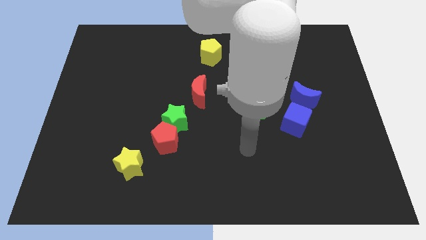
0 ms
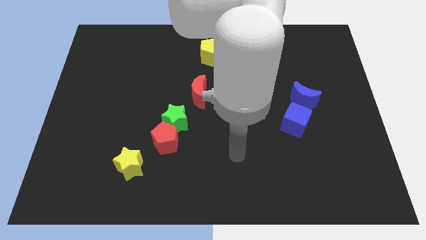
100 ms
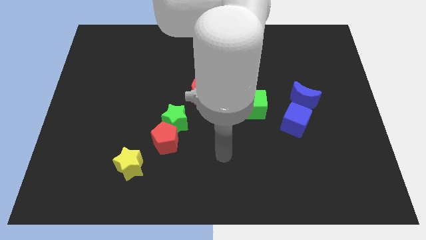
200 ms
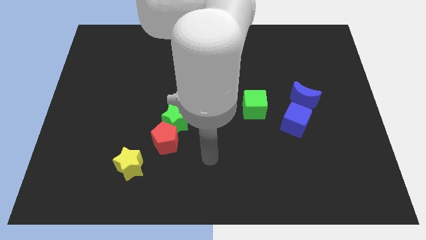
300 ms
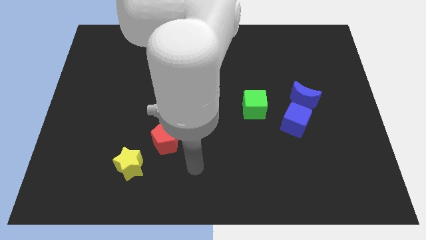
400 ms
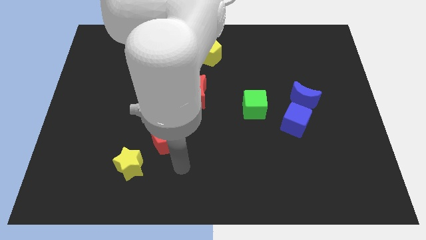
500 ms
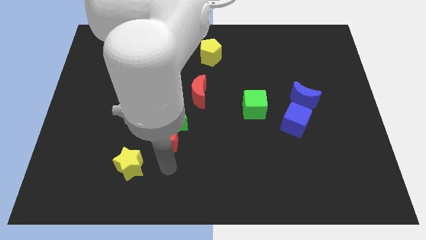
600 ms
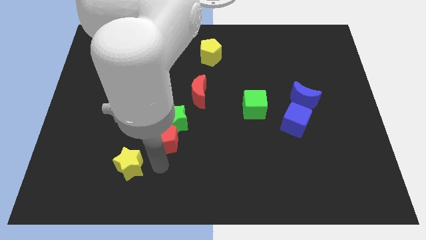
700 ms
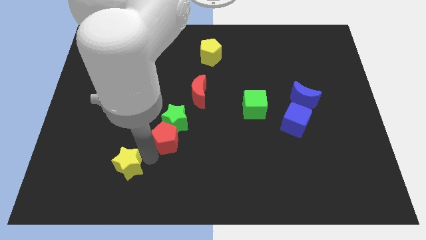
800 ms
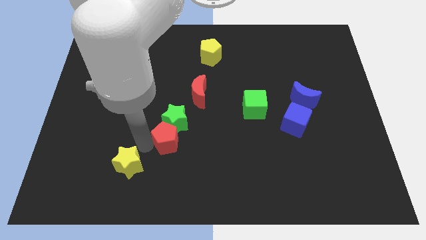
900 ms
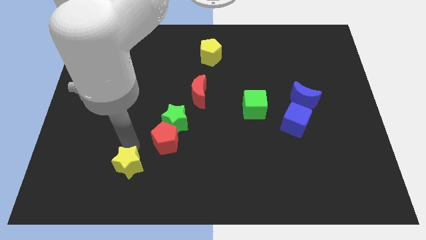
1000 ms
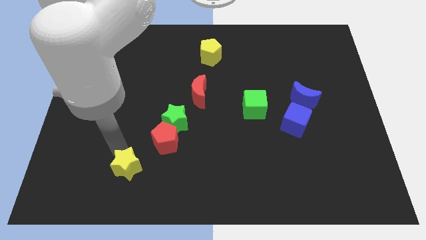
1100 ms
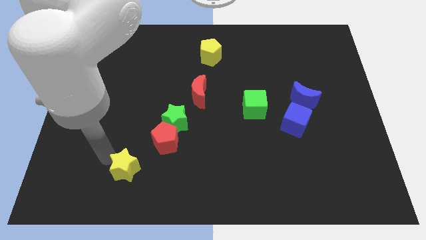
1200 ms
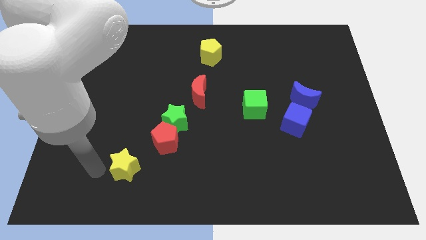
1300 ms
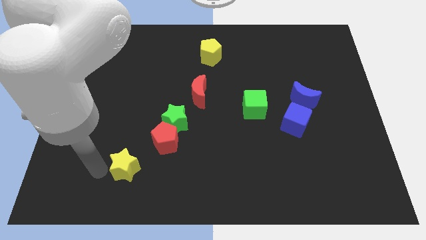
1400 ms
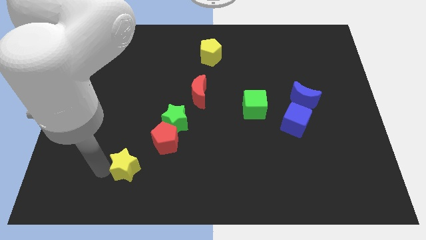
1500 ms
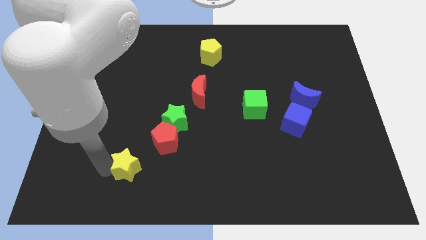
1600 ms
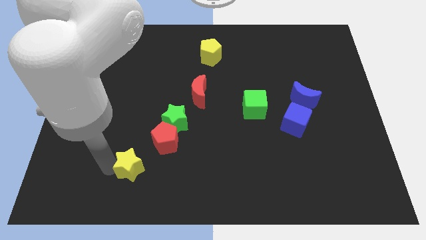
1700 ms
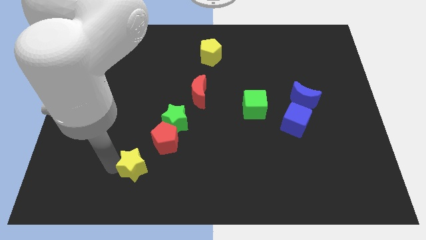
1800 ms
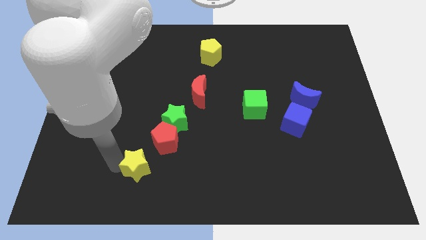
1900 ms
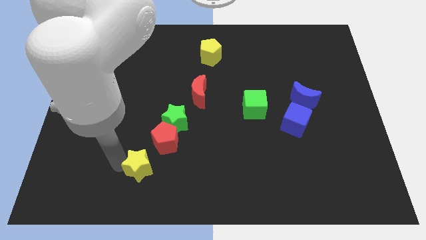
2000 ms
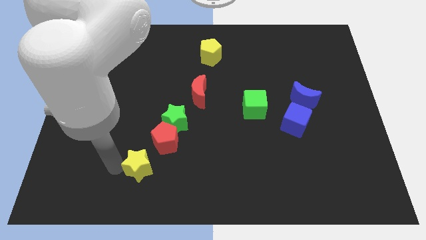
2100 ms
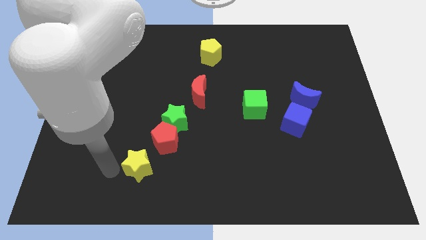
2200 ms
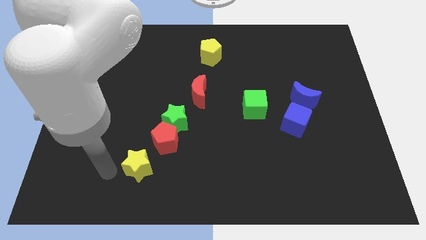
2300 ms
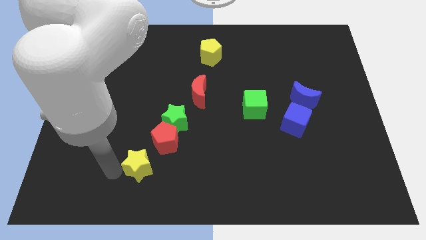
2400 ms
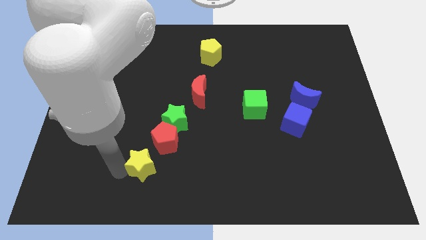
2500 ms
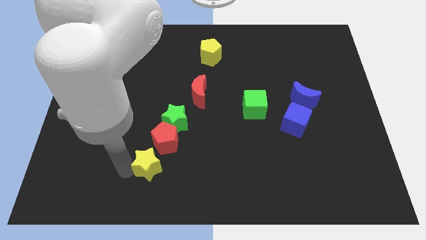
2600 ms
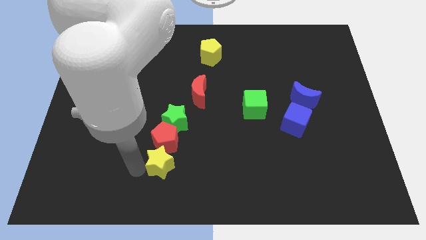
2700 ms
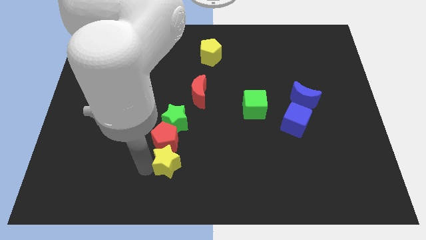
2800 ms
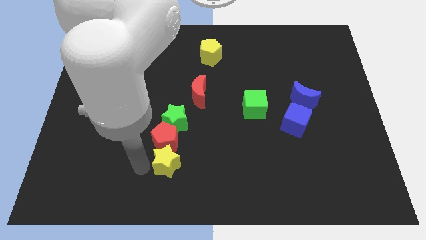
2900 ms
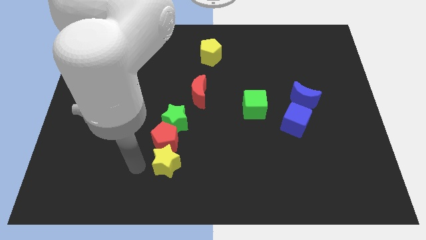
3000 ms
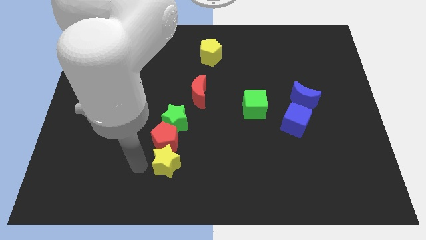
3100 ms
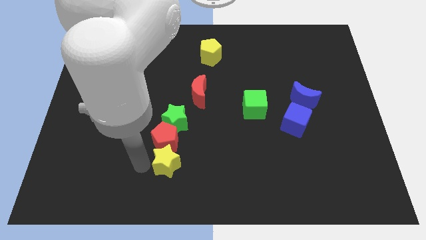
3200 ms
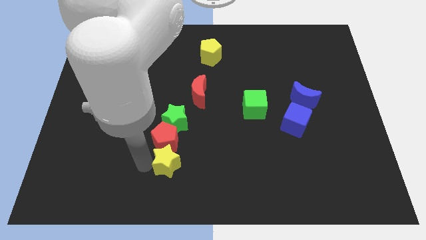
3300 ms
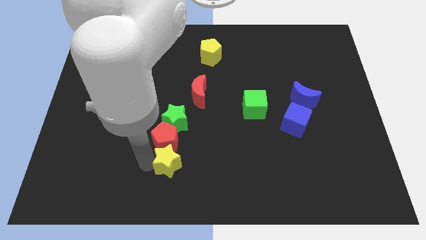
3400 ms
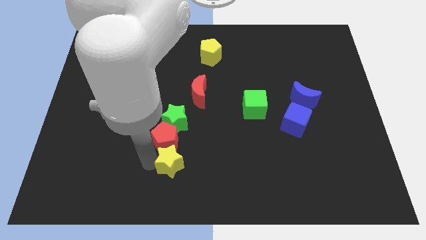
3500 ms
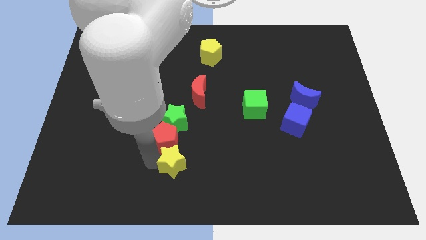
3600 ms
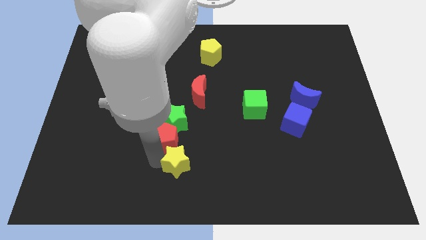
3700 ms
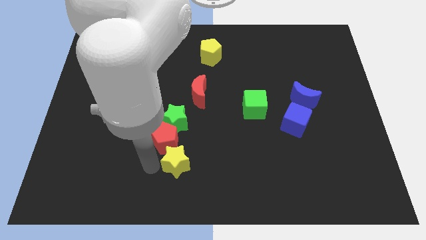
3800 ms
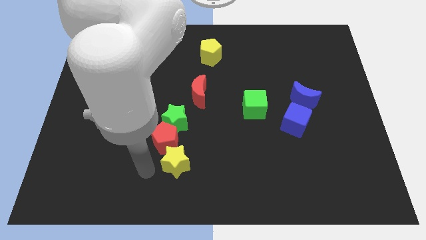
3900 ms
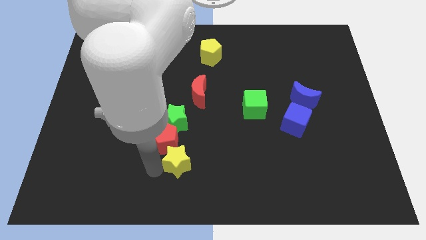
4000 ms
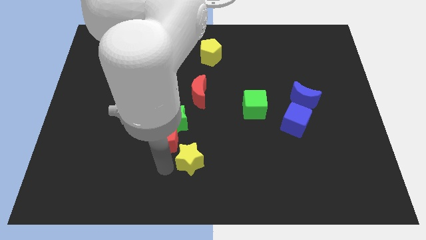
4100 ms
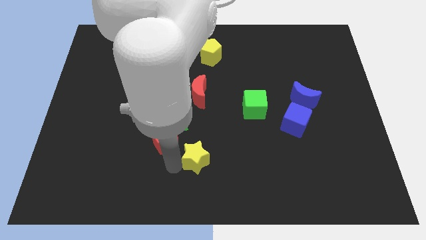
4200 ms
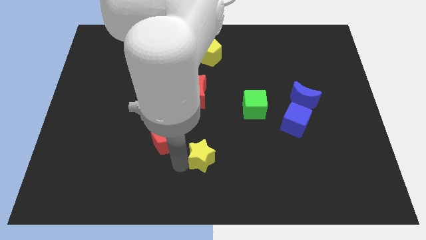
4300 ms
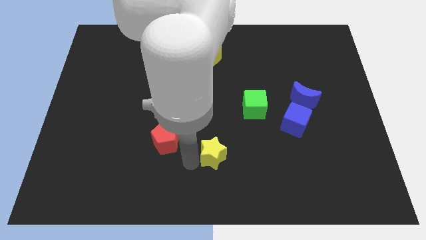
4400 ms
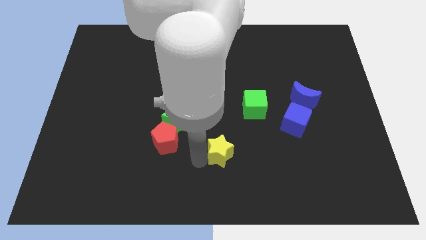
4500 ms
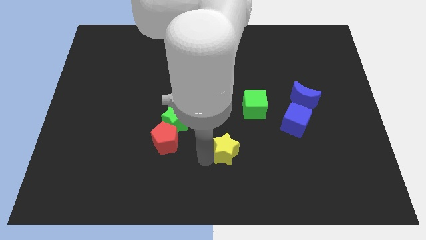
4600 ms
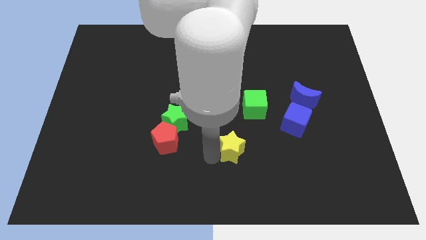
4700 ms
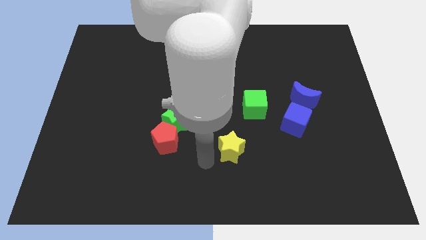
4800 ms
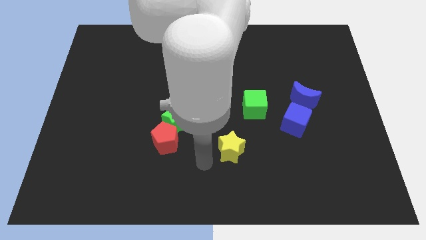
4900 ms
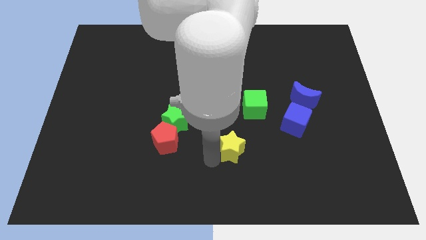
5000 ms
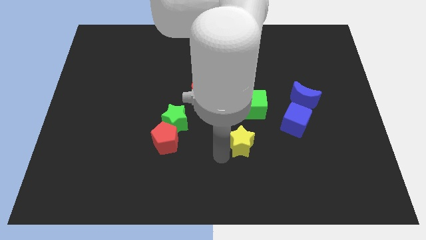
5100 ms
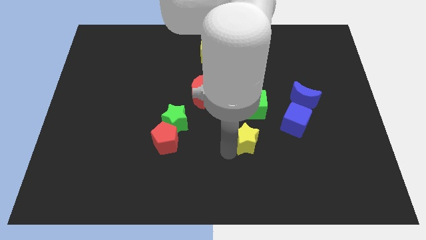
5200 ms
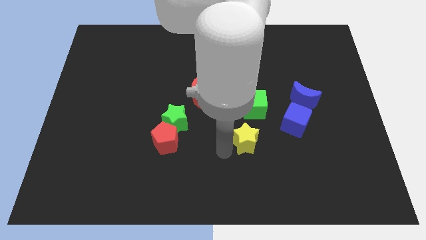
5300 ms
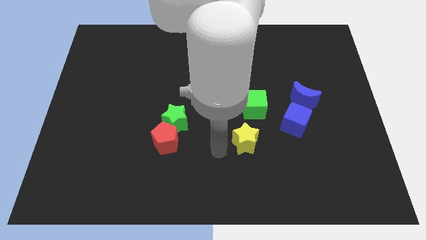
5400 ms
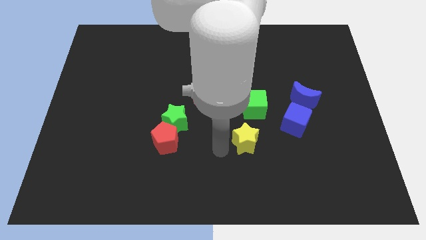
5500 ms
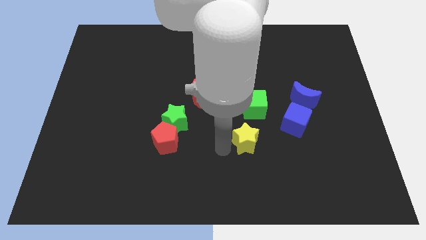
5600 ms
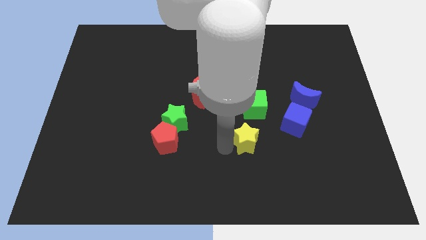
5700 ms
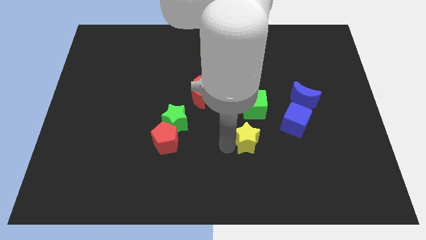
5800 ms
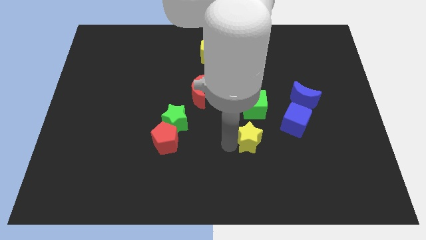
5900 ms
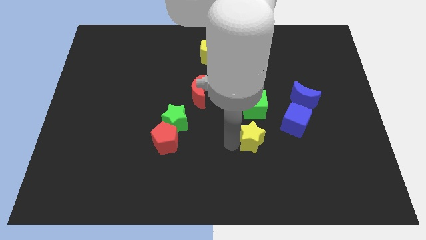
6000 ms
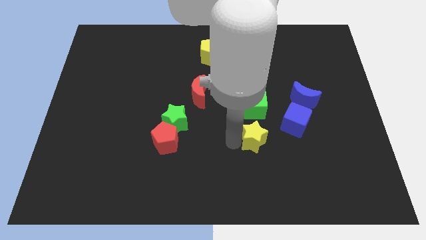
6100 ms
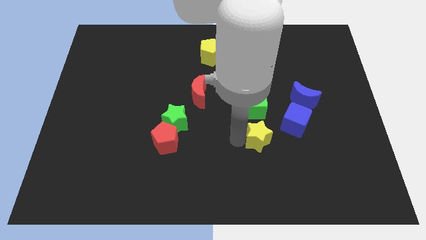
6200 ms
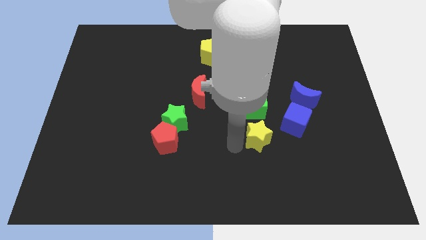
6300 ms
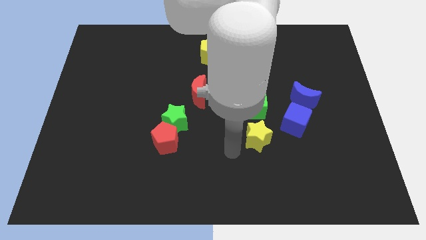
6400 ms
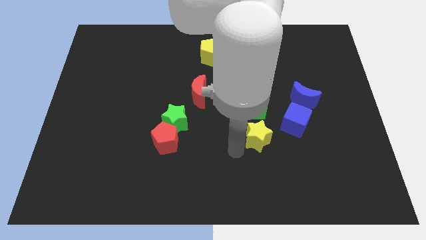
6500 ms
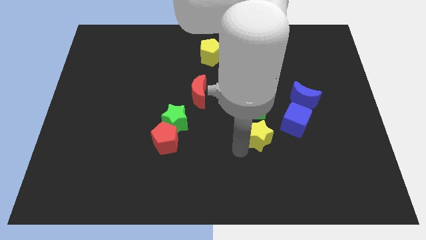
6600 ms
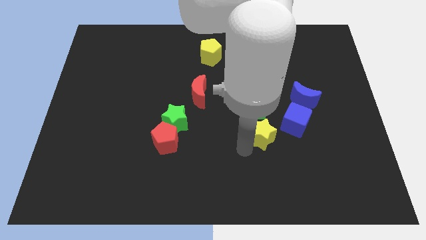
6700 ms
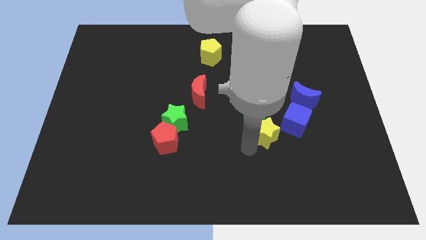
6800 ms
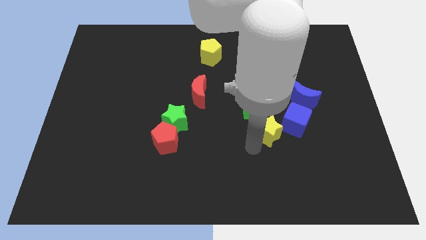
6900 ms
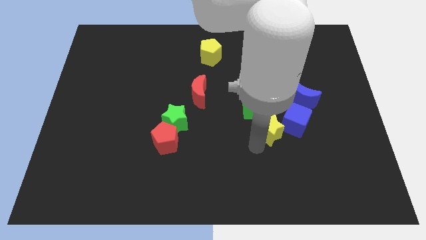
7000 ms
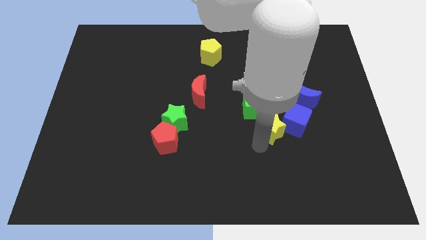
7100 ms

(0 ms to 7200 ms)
slide the yellow star towards the blue cube
